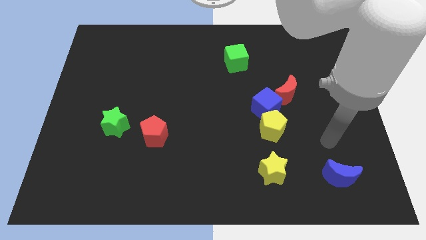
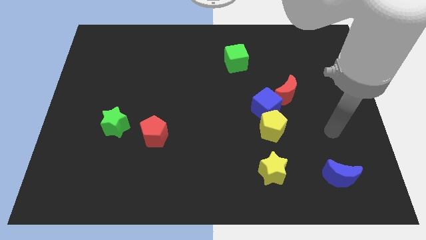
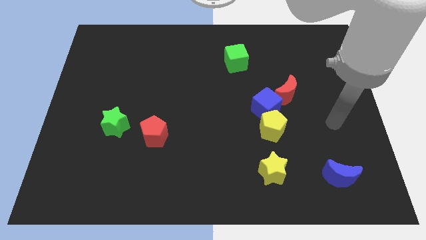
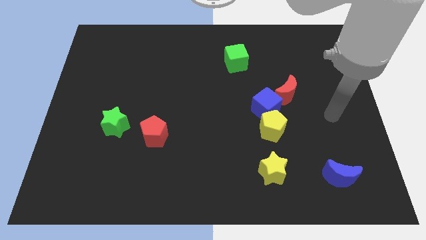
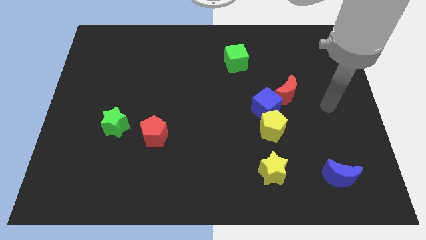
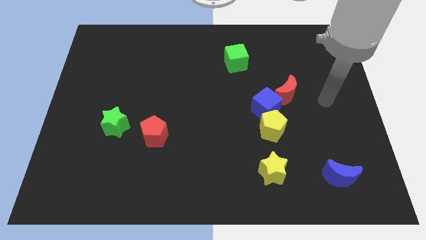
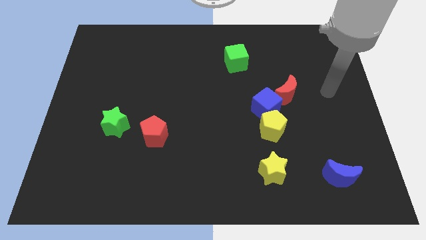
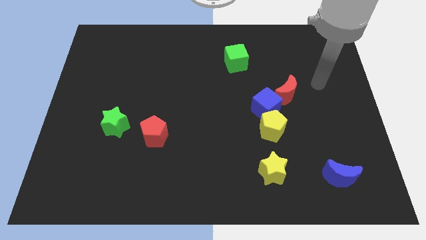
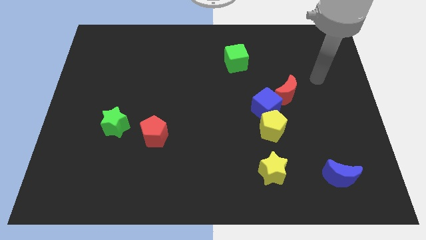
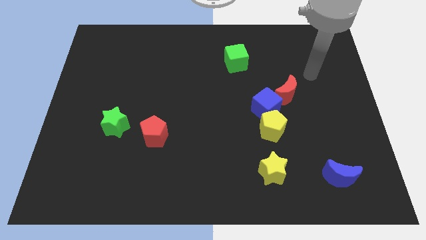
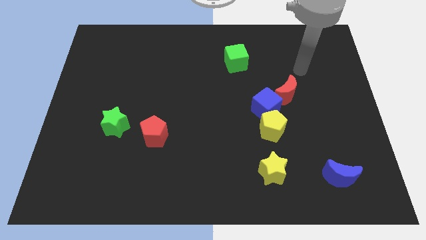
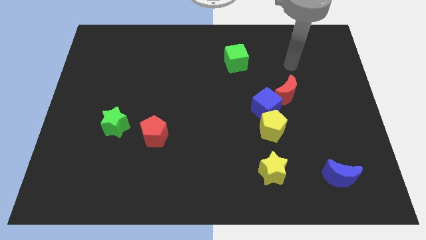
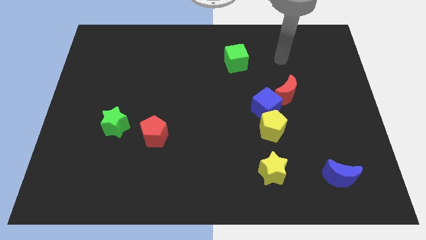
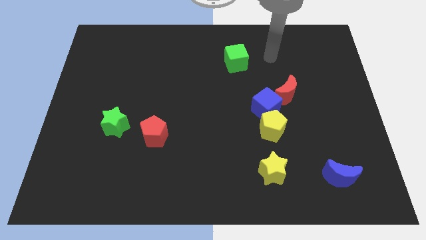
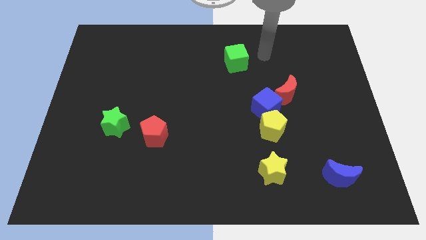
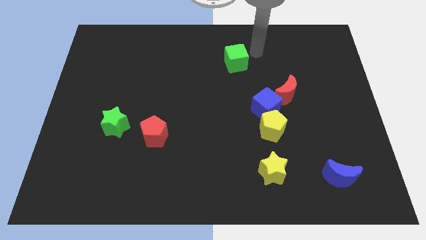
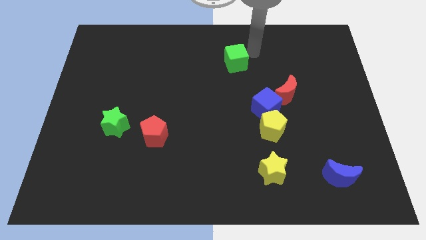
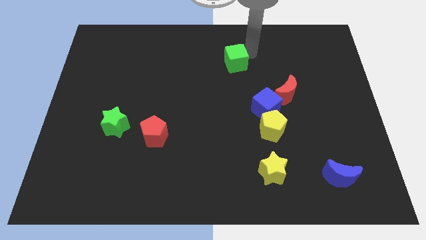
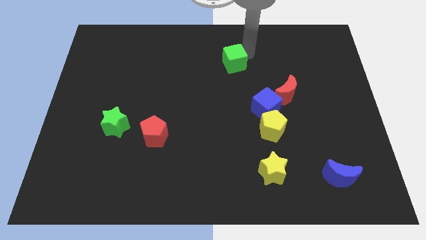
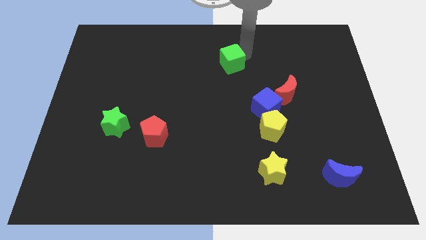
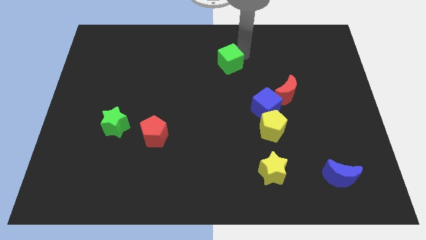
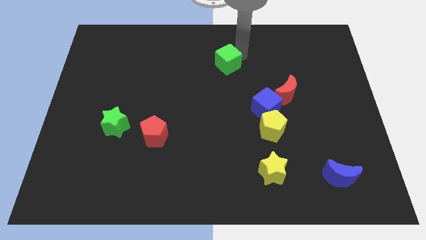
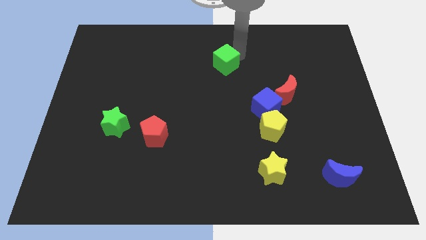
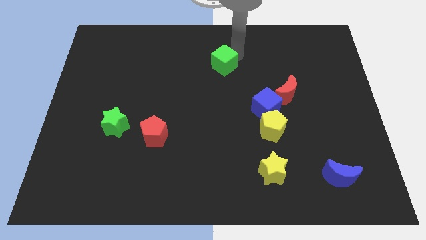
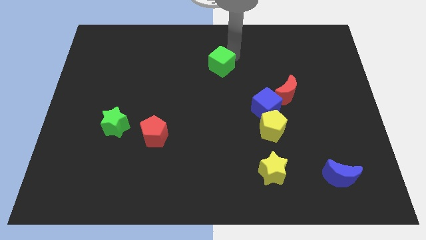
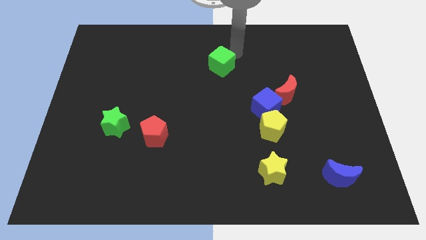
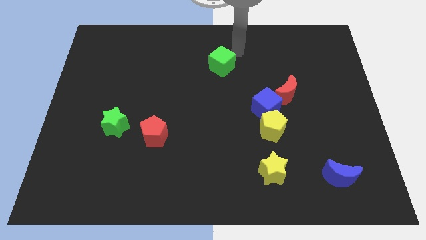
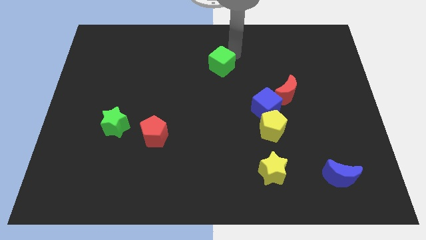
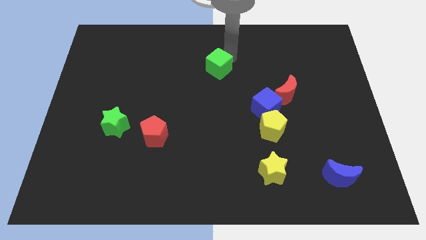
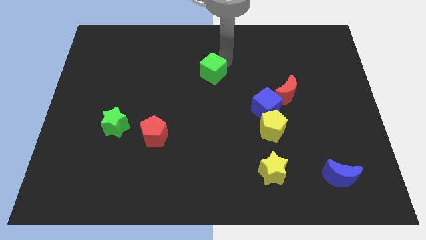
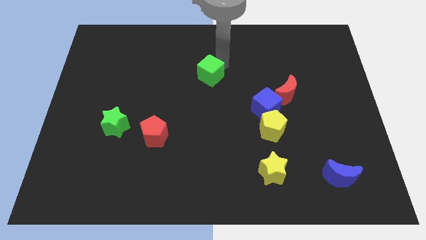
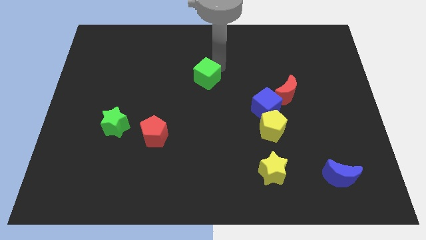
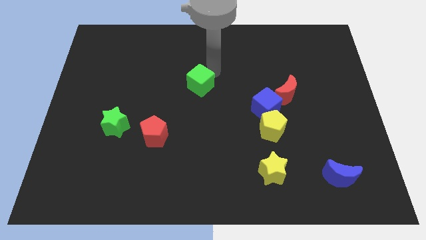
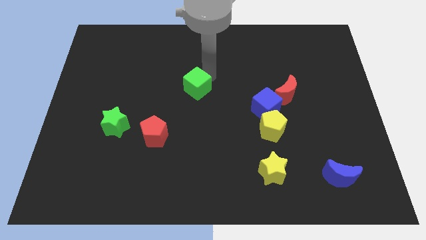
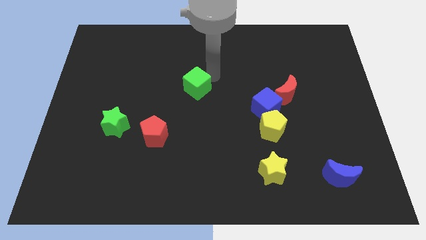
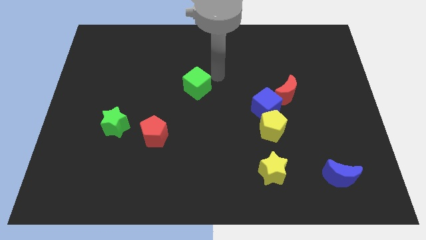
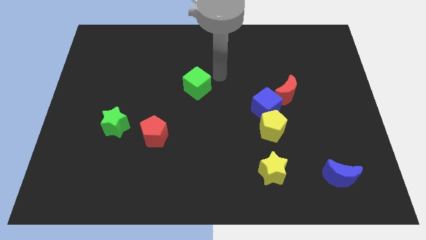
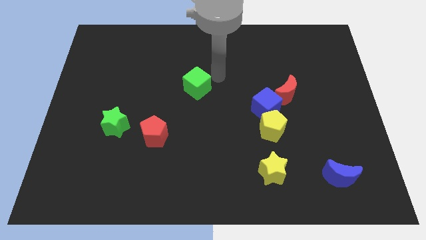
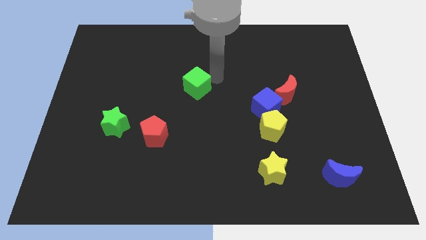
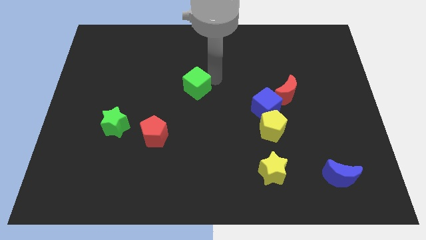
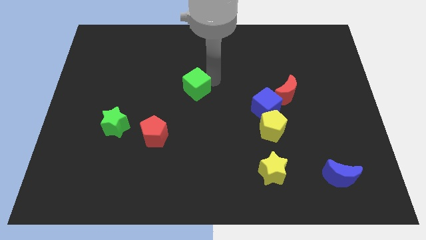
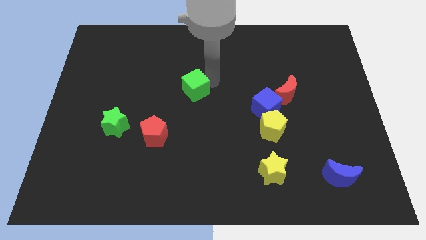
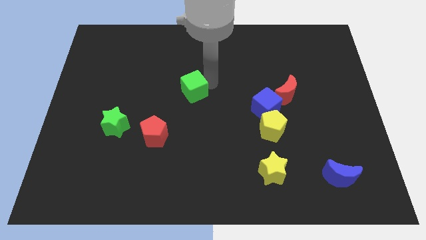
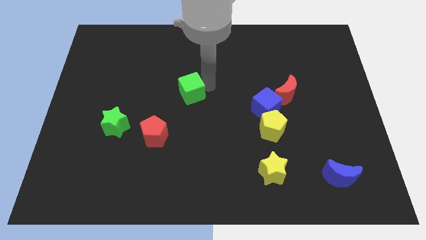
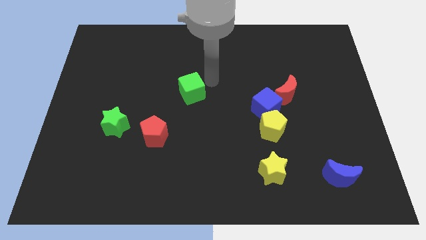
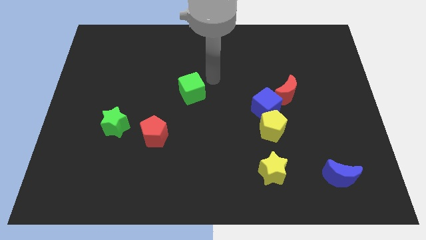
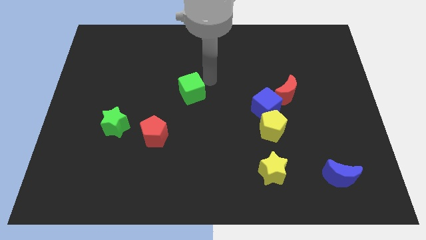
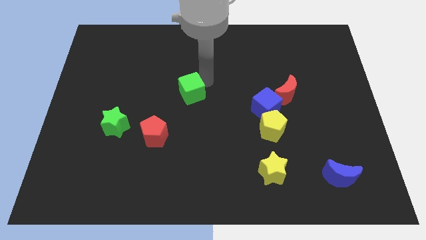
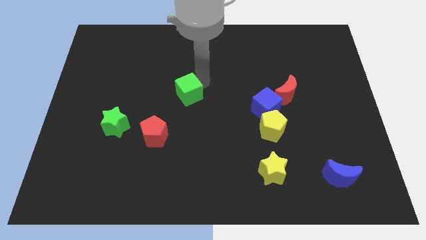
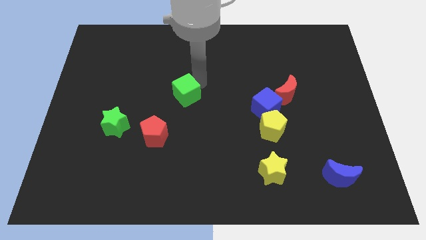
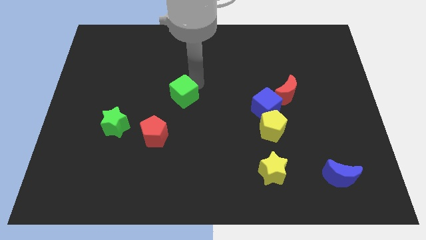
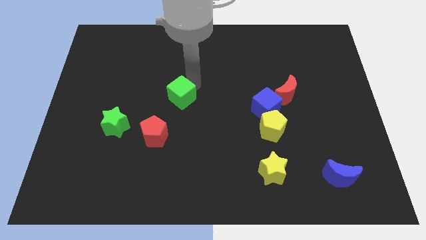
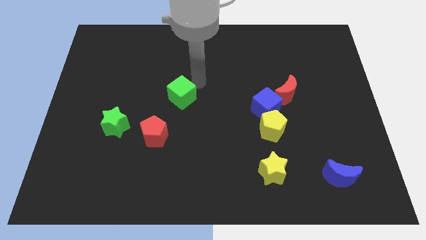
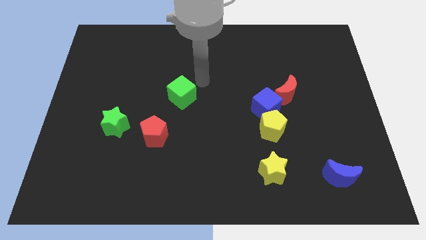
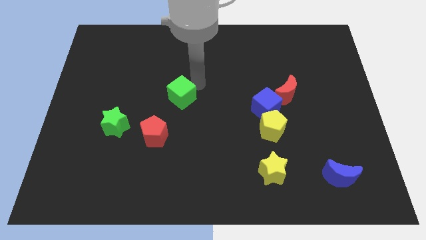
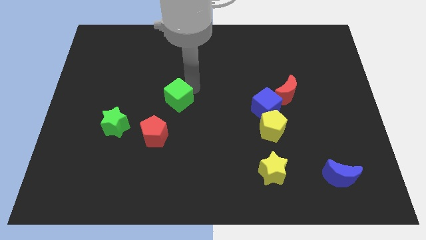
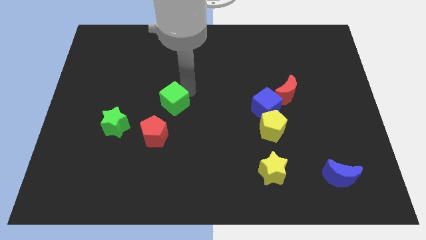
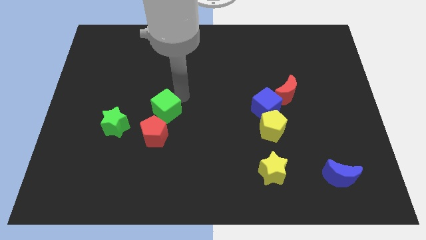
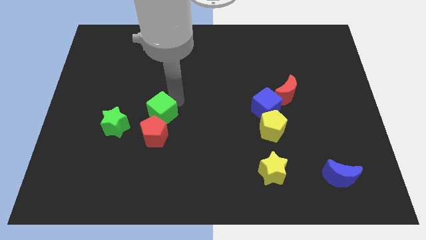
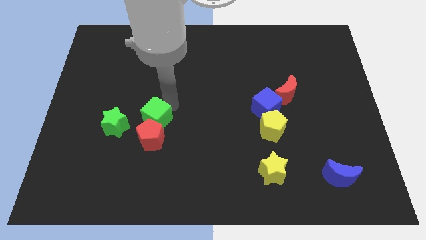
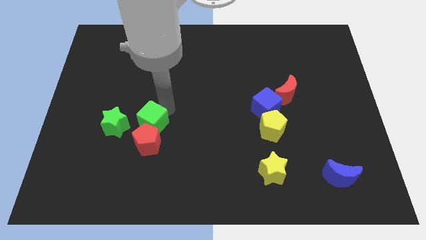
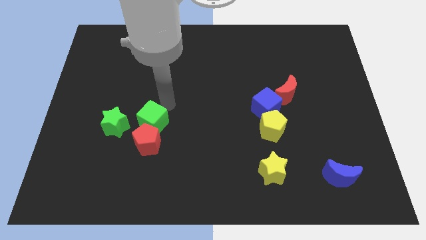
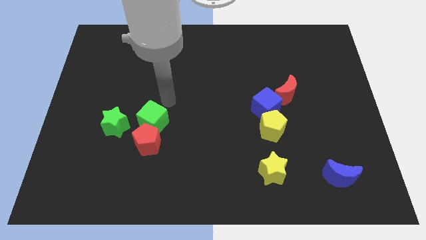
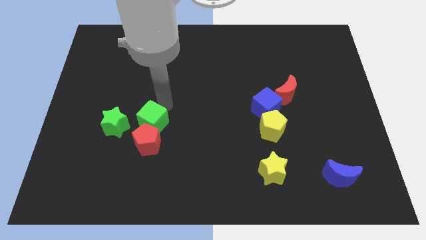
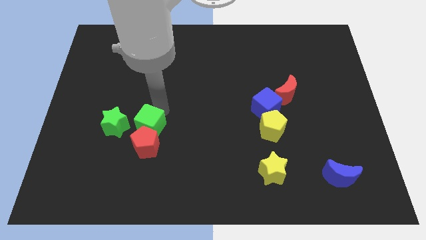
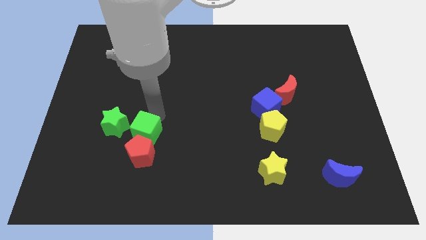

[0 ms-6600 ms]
put the green cube to the bottom right side of the green star

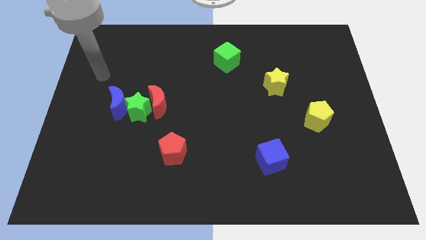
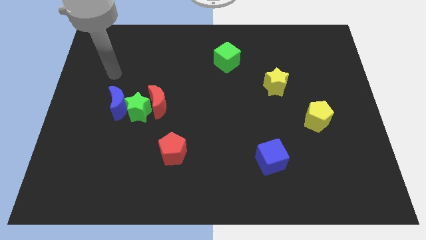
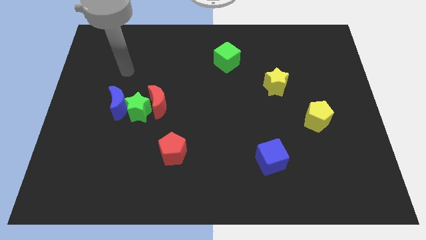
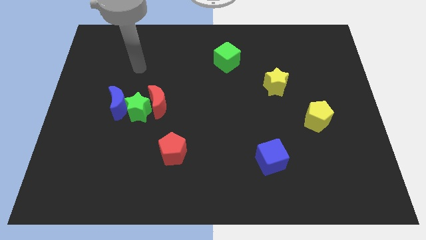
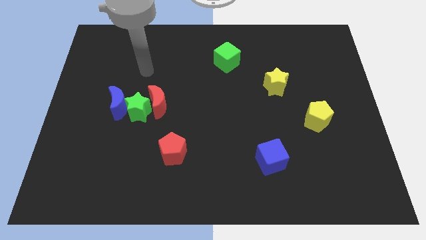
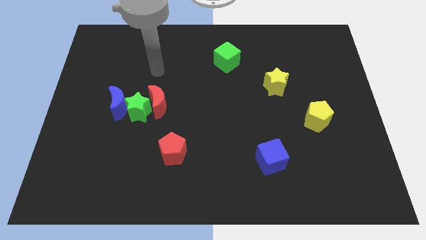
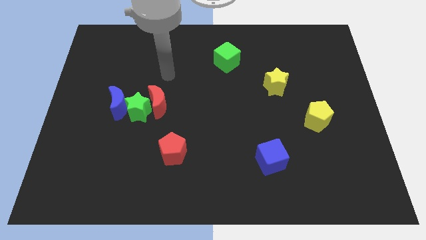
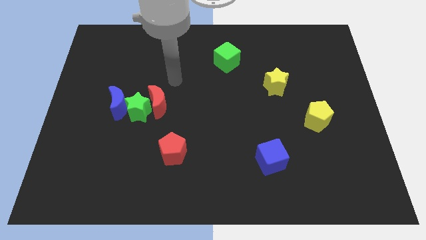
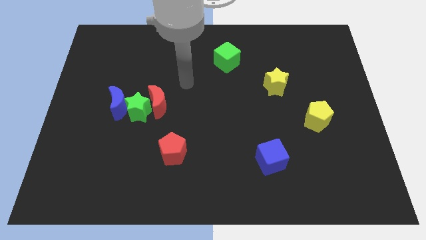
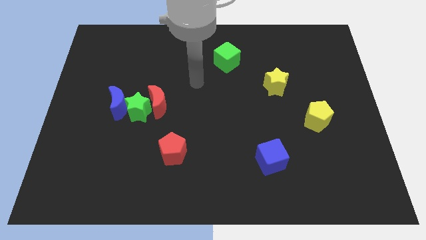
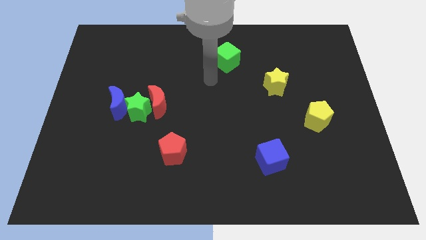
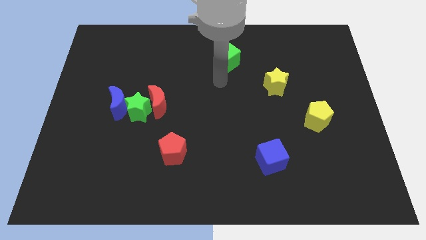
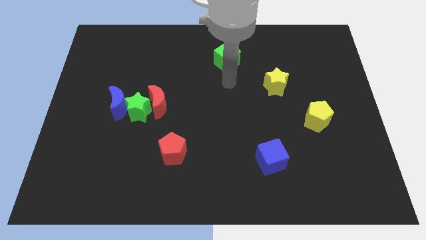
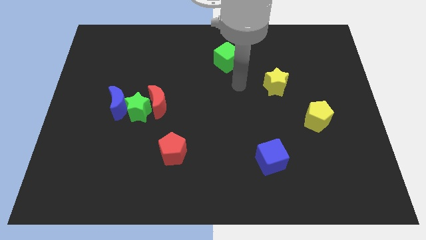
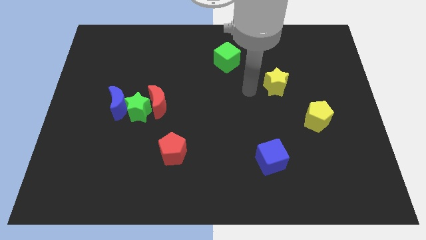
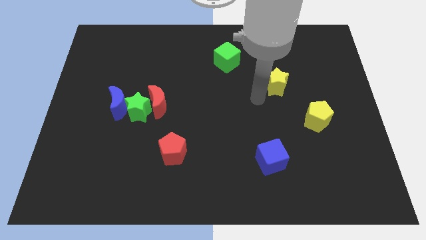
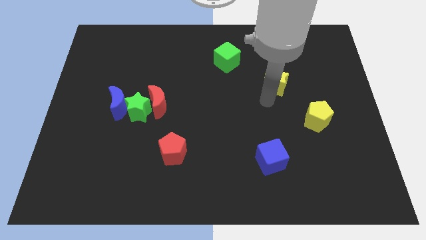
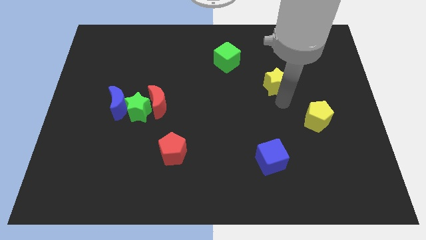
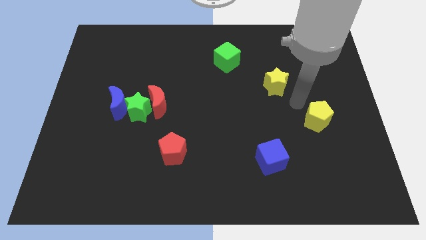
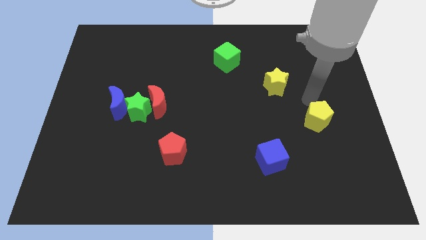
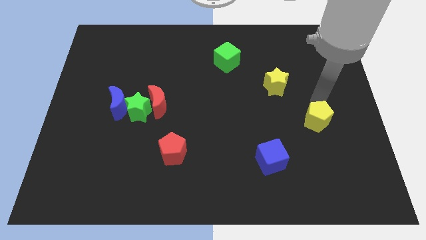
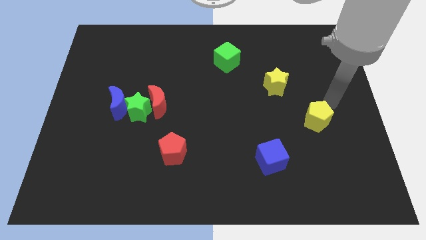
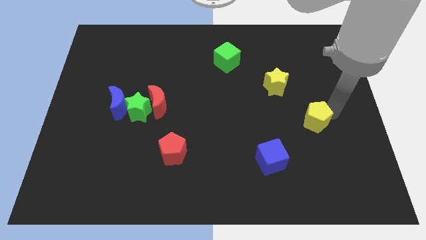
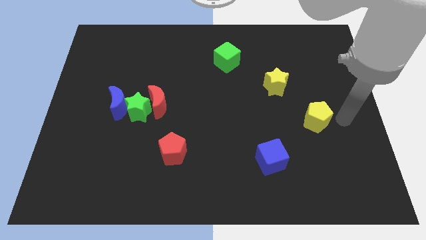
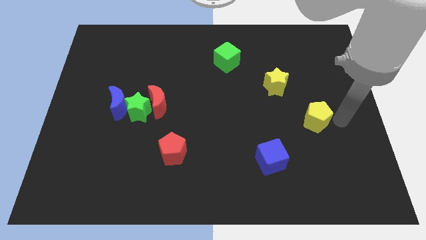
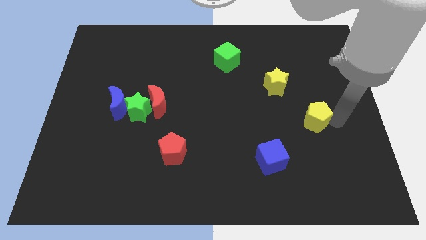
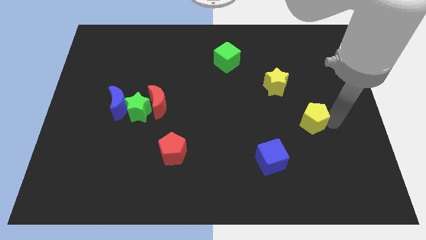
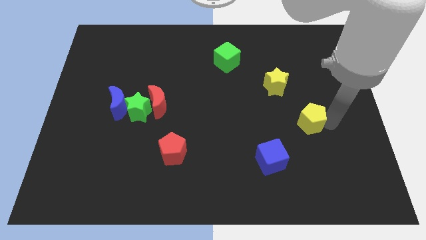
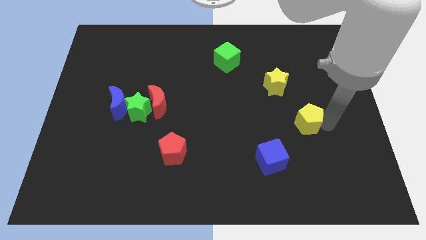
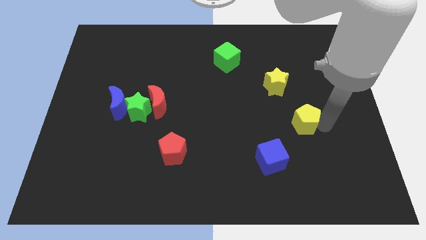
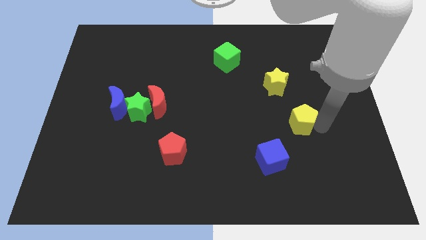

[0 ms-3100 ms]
push the yellow pentagon to the bottom of the yellow star
